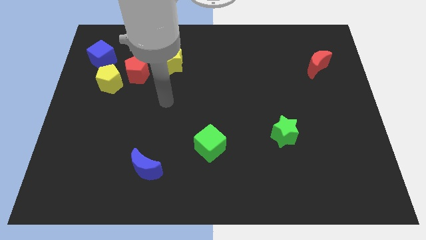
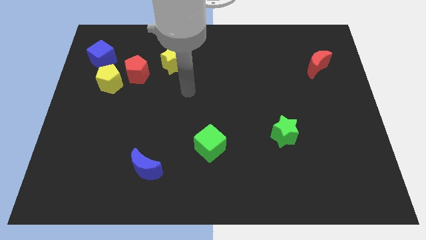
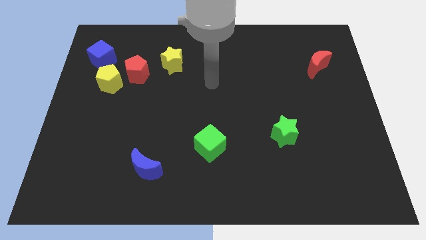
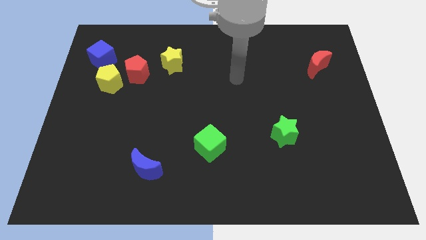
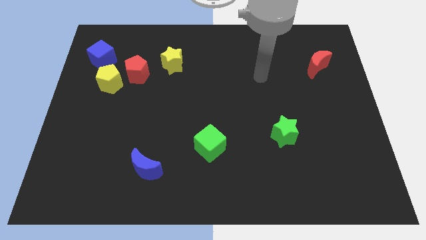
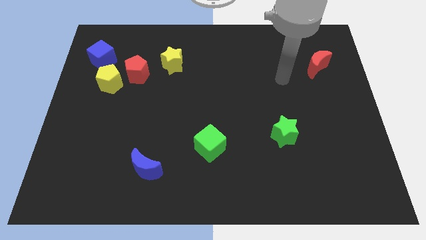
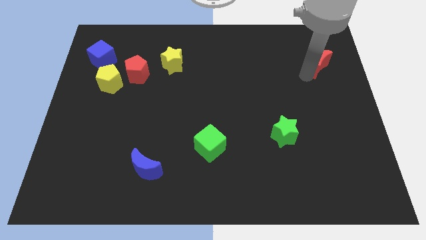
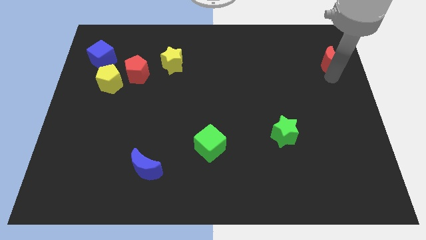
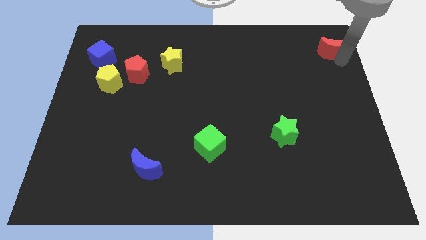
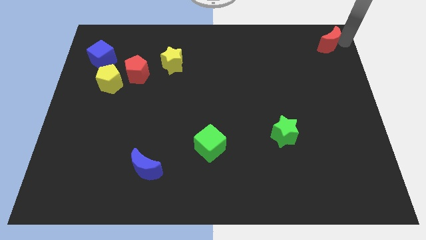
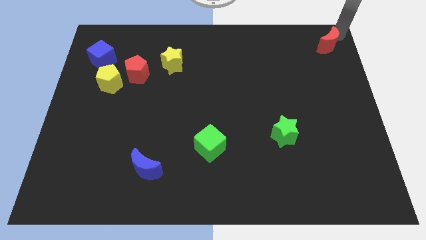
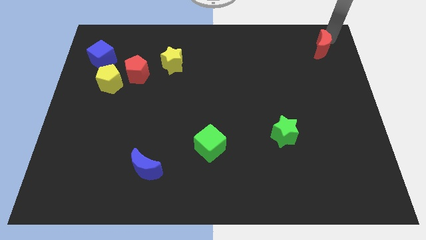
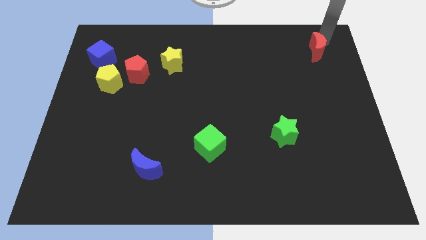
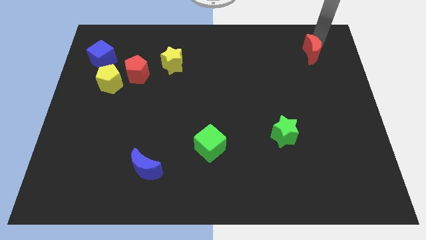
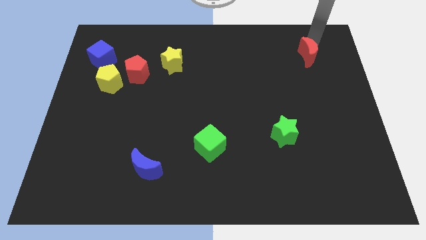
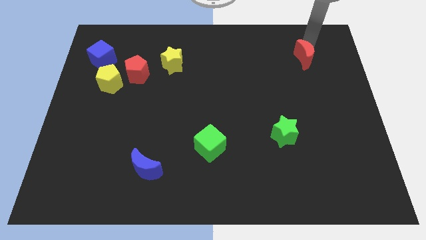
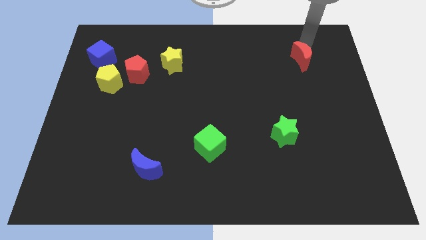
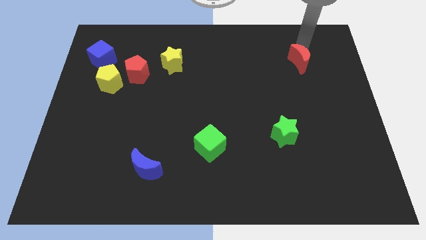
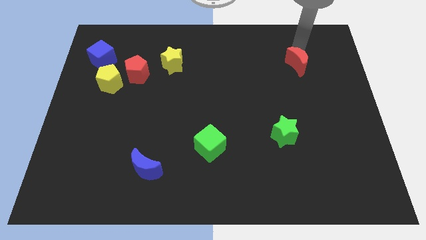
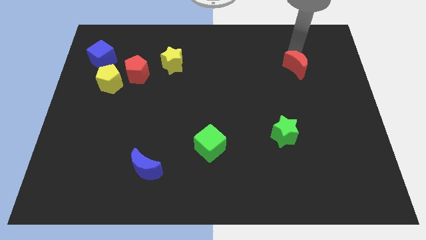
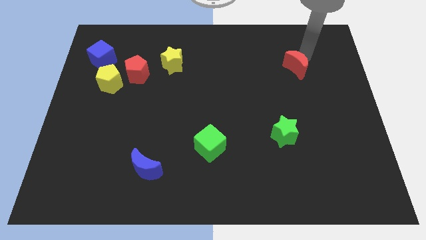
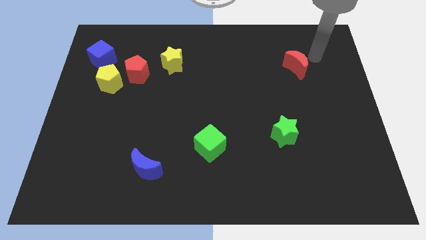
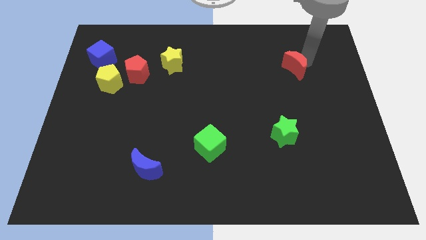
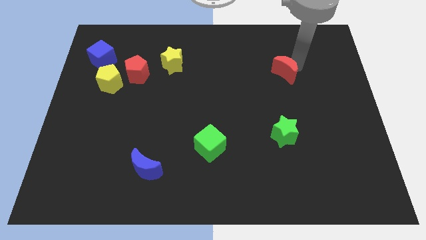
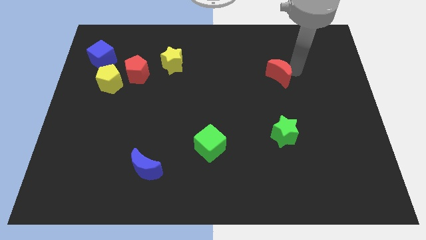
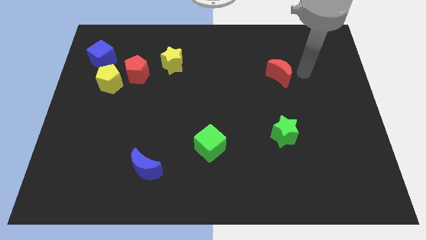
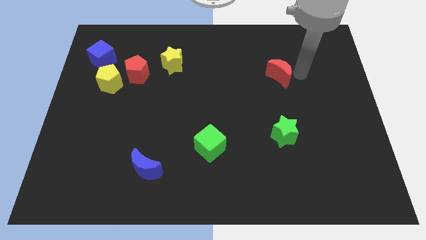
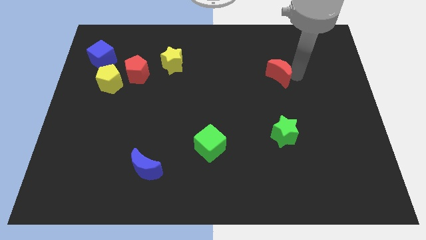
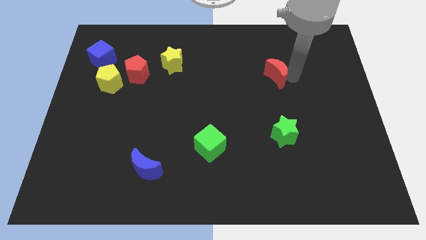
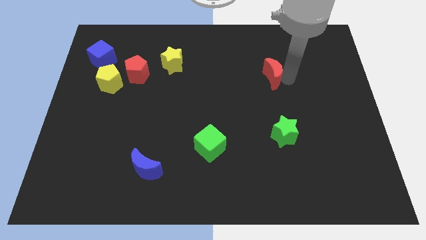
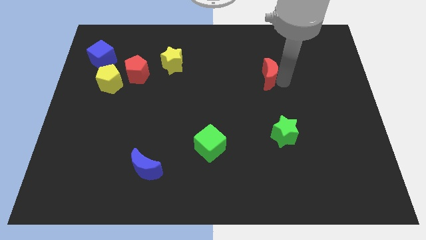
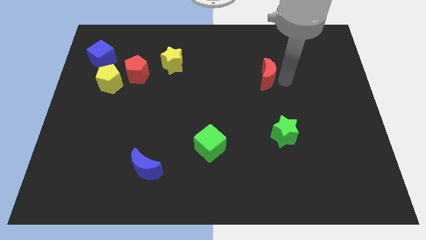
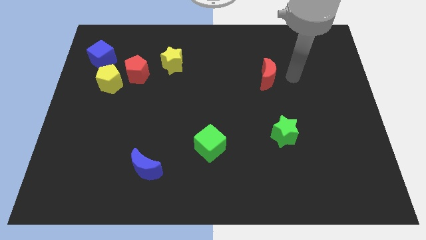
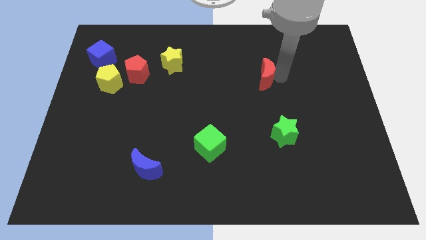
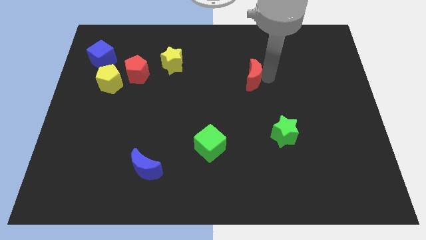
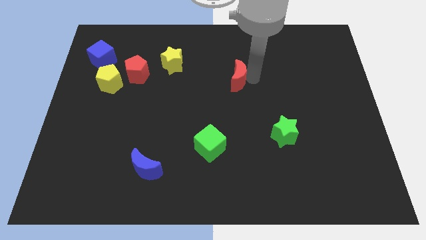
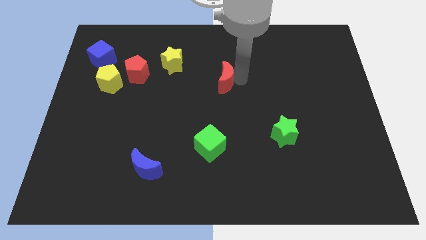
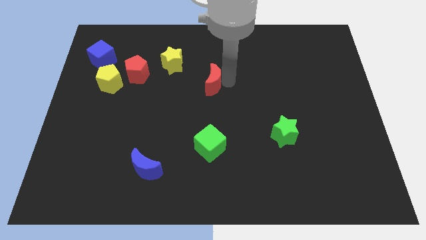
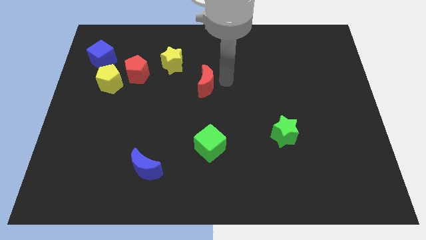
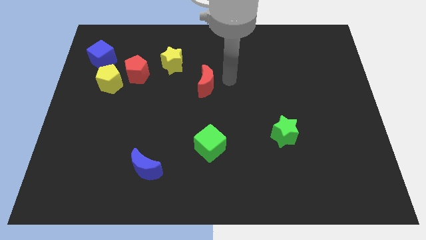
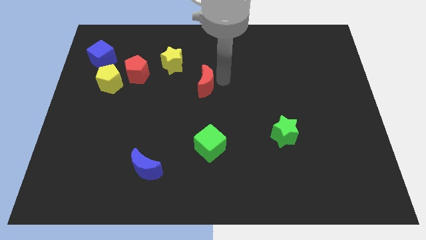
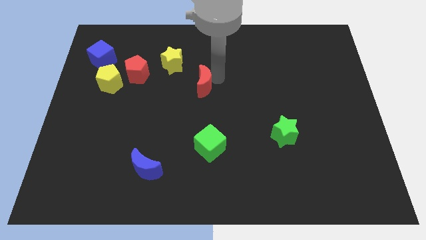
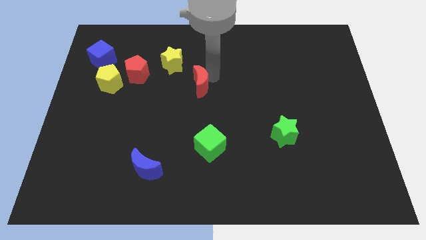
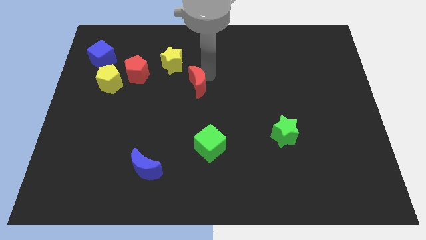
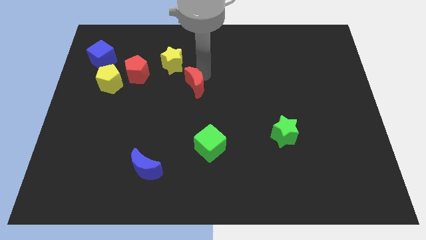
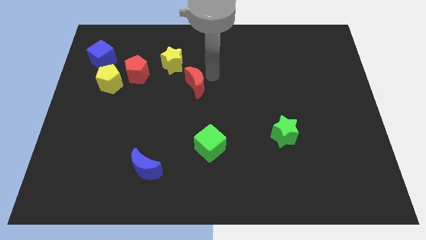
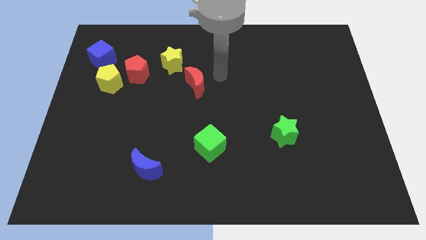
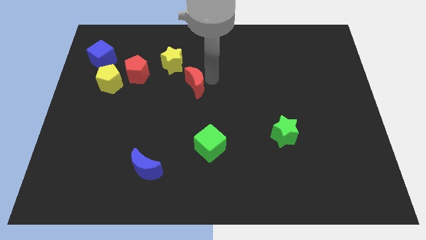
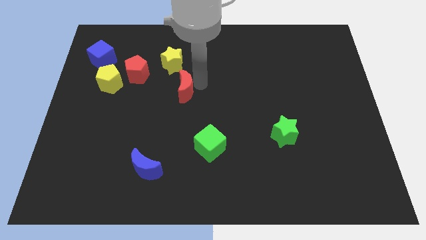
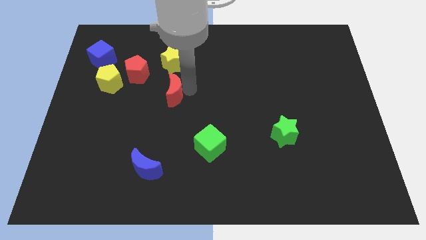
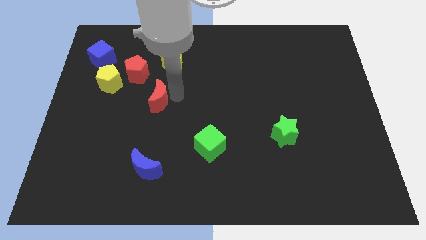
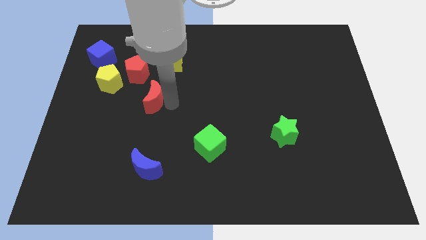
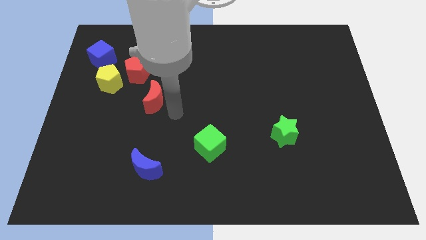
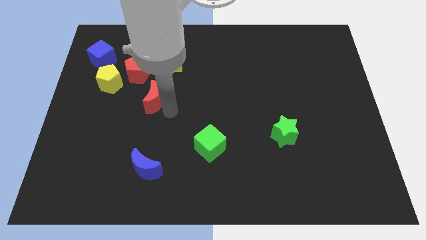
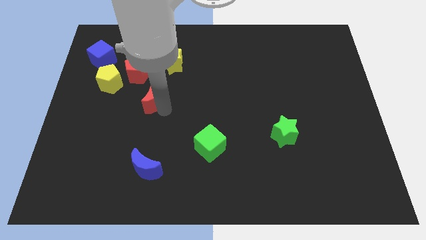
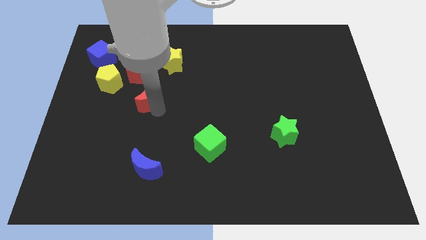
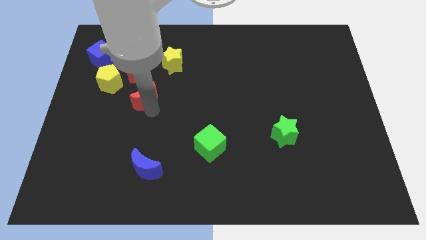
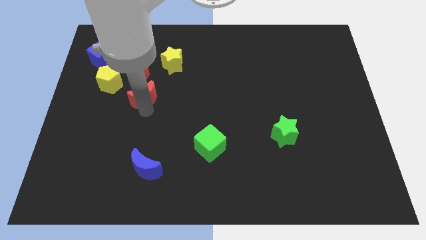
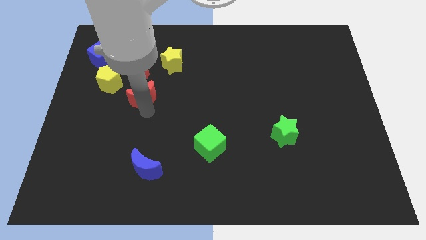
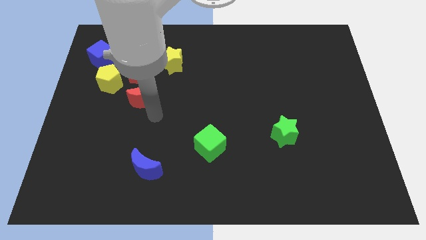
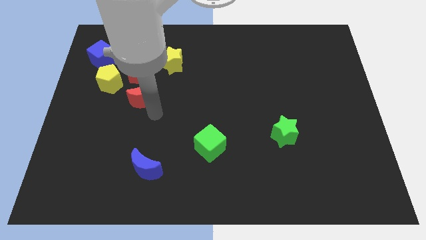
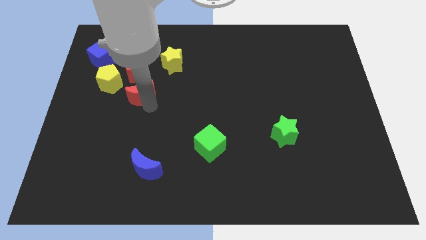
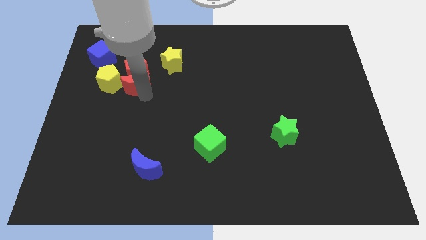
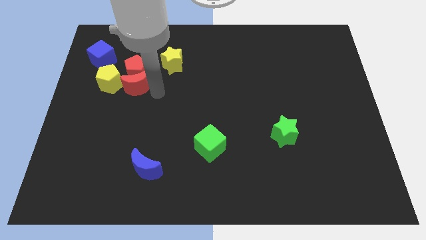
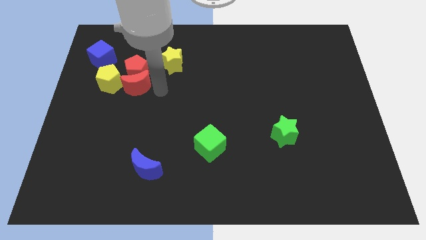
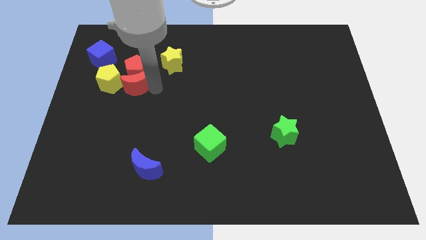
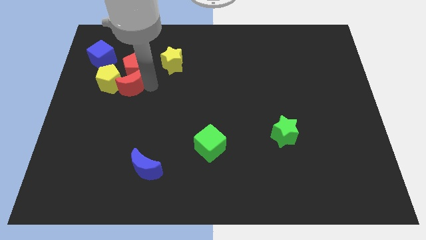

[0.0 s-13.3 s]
push the red moon towards the yellow pentagon
